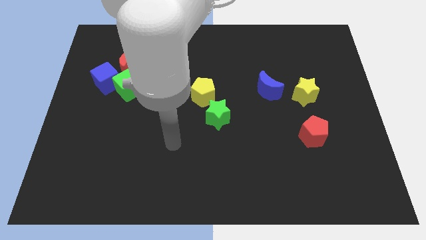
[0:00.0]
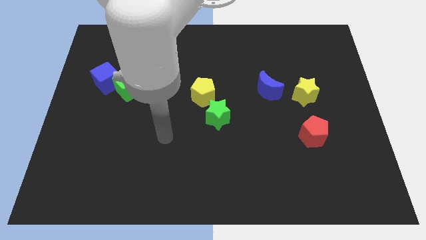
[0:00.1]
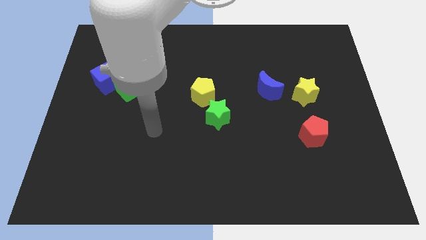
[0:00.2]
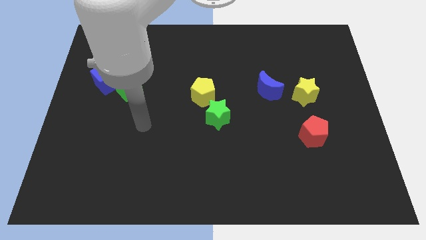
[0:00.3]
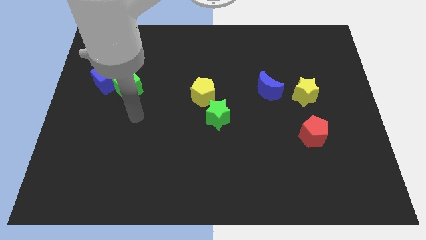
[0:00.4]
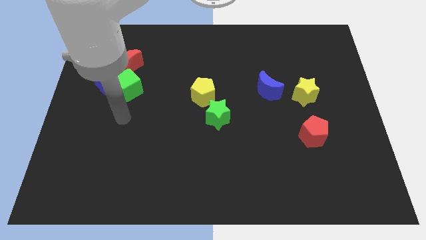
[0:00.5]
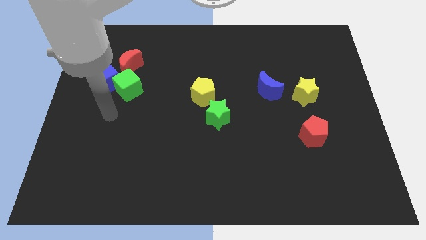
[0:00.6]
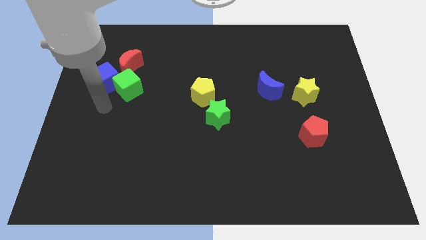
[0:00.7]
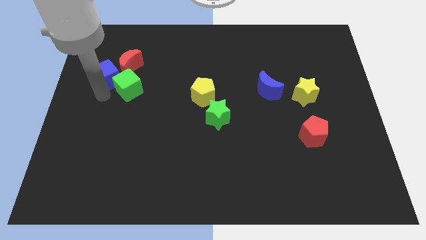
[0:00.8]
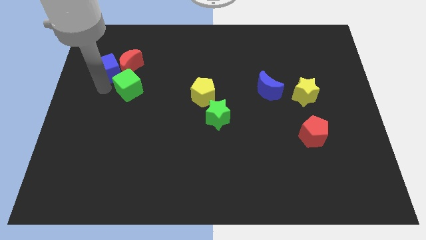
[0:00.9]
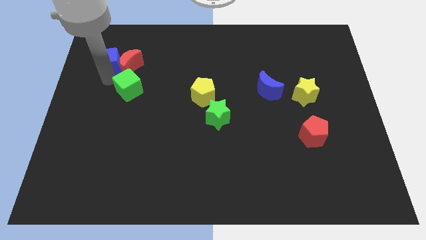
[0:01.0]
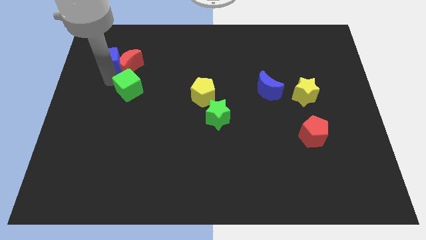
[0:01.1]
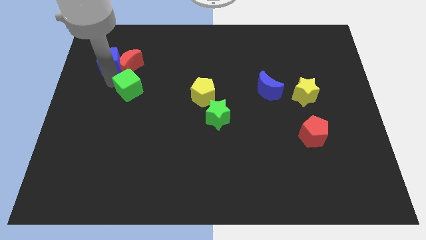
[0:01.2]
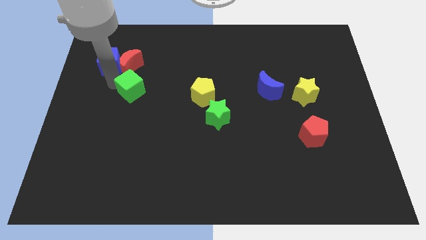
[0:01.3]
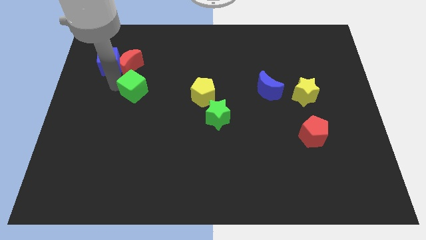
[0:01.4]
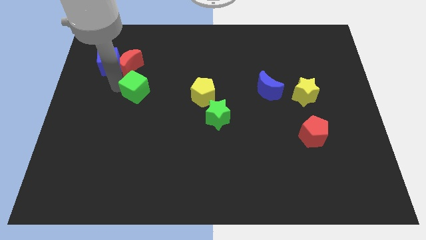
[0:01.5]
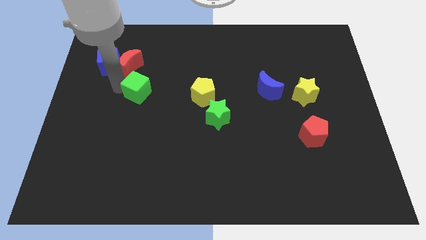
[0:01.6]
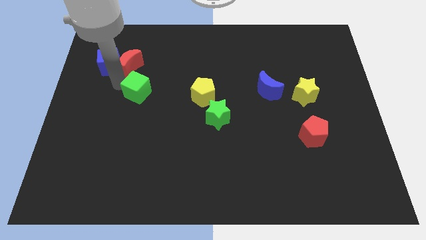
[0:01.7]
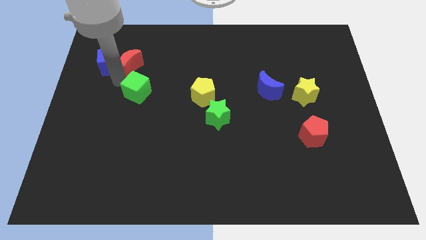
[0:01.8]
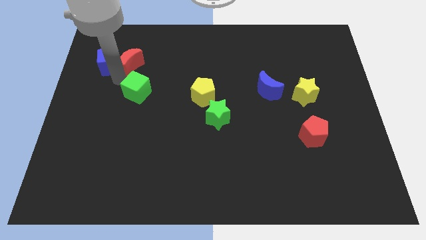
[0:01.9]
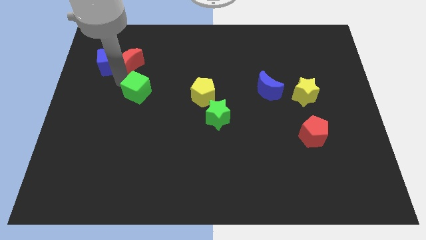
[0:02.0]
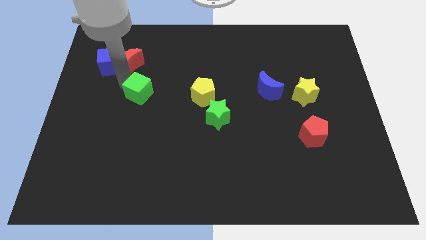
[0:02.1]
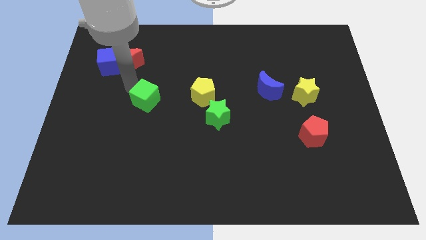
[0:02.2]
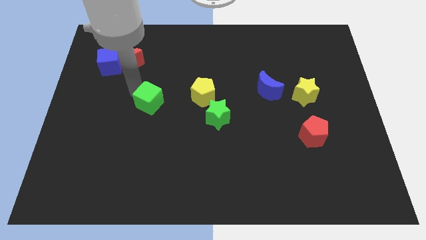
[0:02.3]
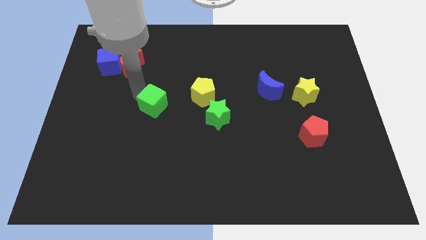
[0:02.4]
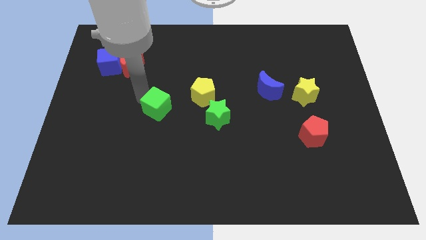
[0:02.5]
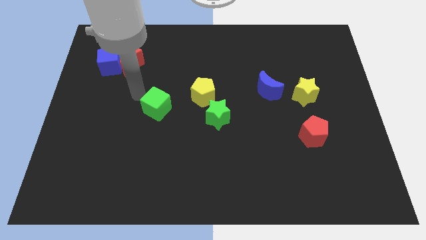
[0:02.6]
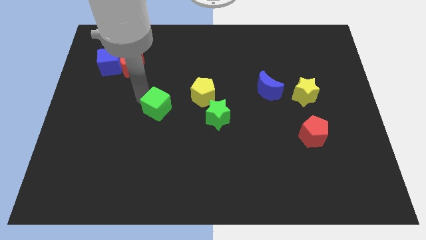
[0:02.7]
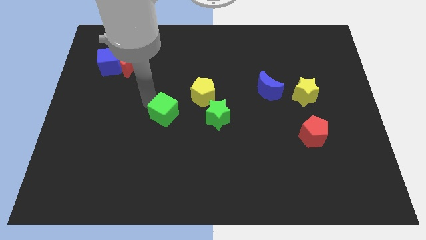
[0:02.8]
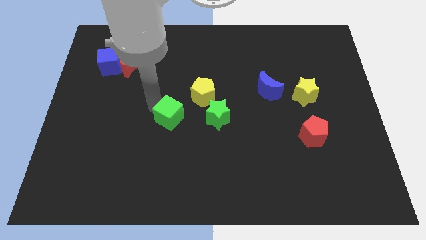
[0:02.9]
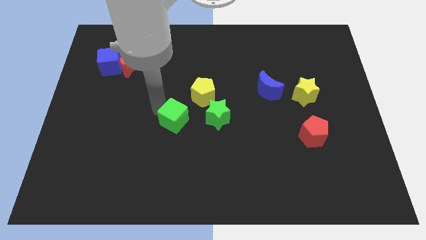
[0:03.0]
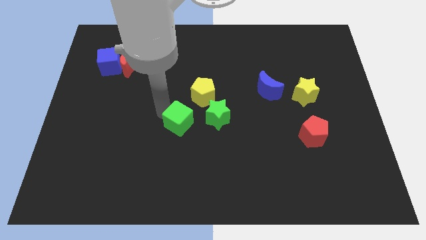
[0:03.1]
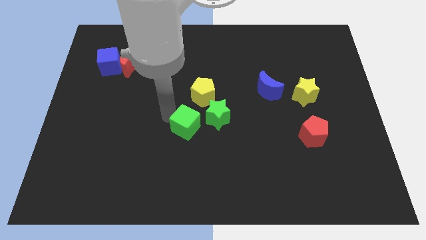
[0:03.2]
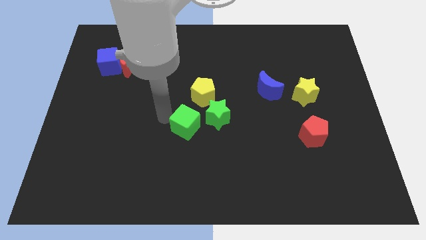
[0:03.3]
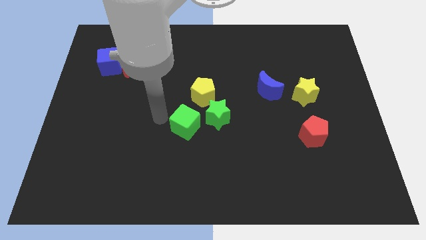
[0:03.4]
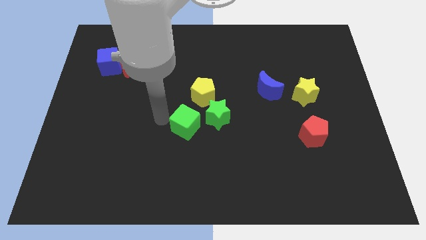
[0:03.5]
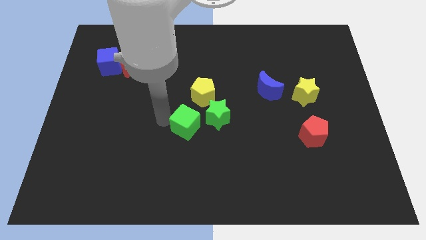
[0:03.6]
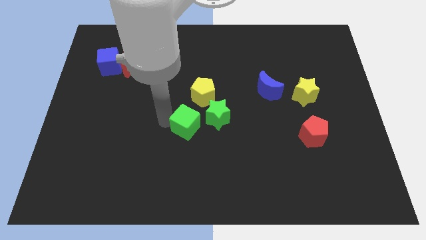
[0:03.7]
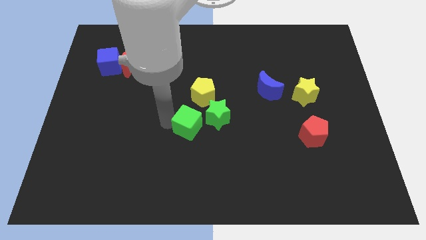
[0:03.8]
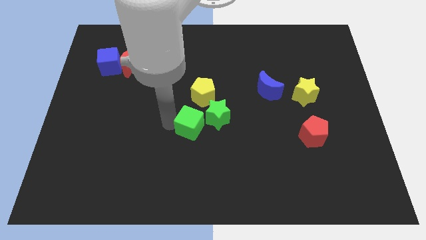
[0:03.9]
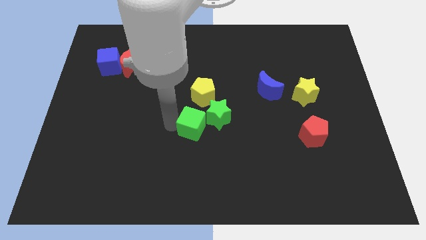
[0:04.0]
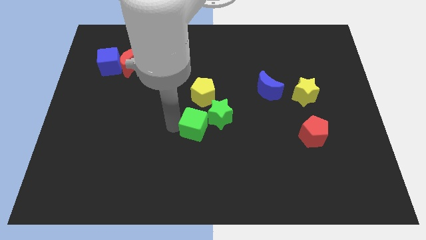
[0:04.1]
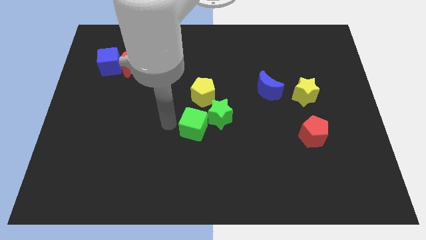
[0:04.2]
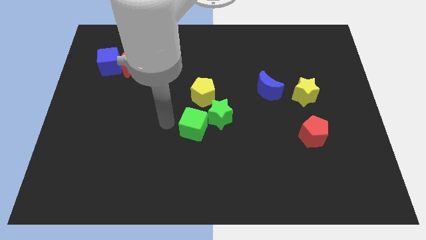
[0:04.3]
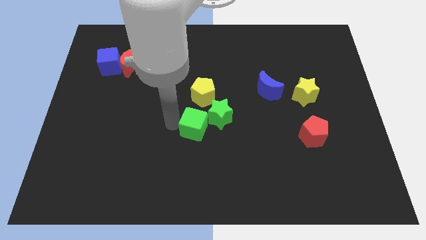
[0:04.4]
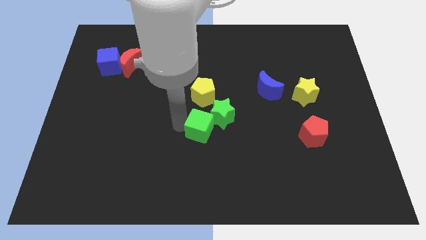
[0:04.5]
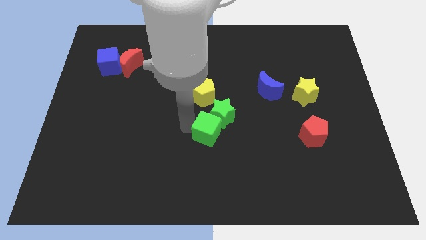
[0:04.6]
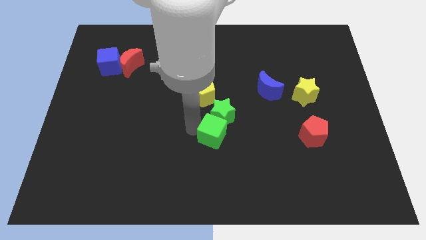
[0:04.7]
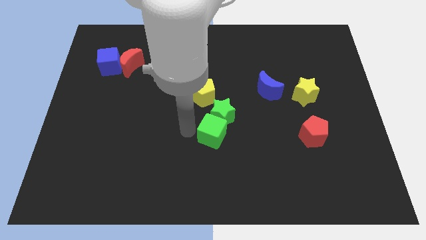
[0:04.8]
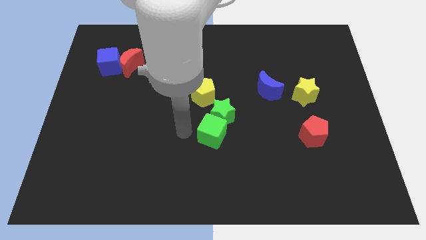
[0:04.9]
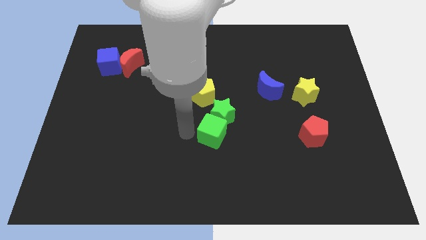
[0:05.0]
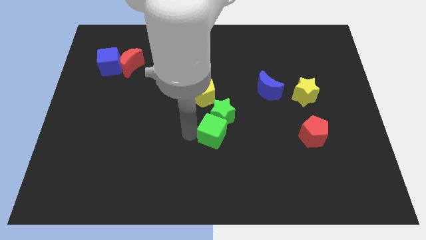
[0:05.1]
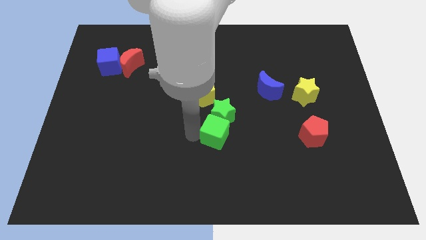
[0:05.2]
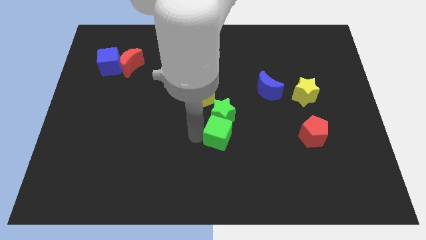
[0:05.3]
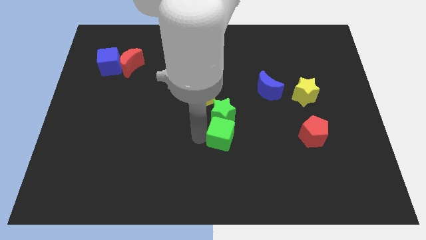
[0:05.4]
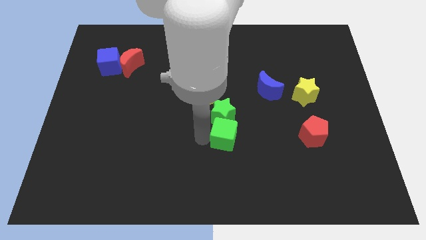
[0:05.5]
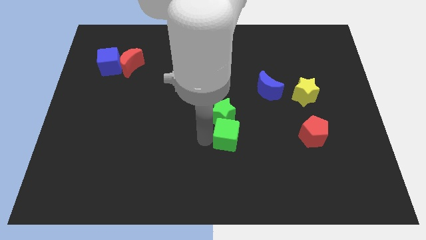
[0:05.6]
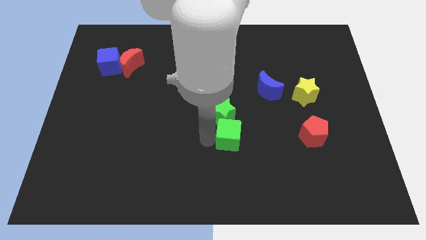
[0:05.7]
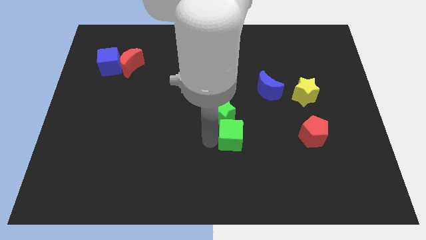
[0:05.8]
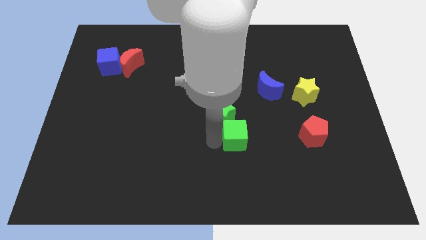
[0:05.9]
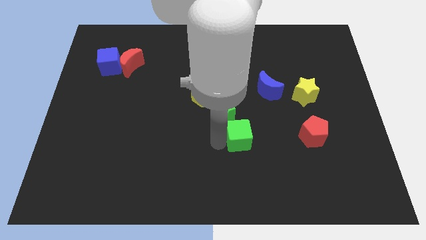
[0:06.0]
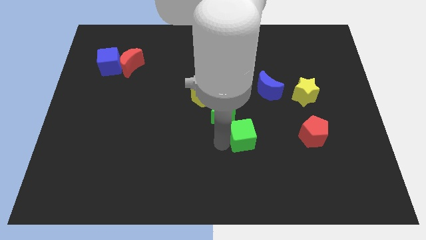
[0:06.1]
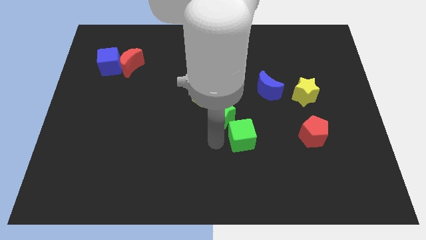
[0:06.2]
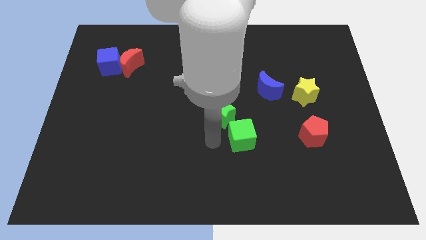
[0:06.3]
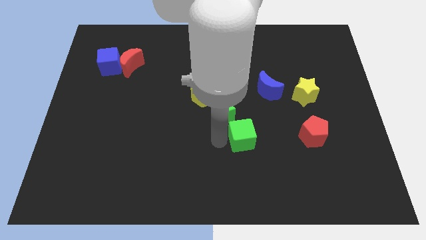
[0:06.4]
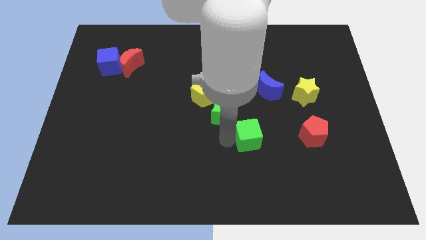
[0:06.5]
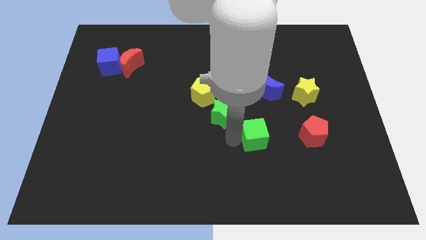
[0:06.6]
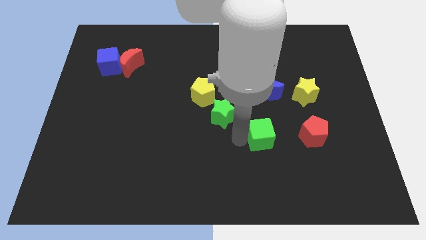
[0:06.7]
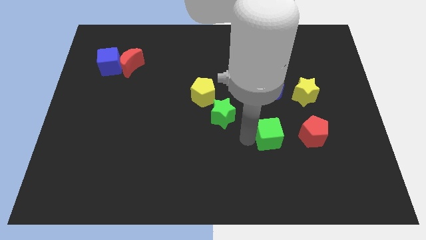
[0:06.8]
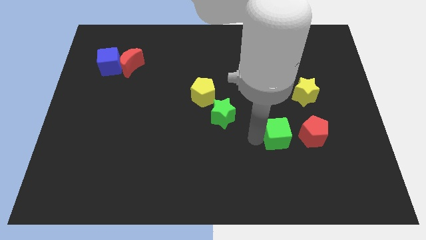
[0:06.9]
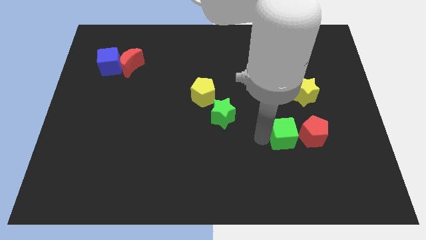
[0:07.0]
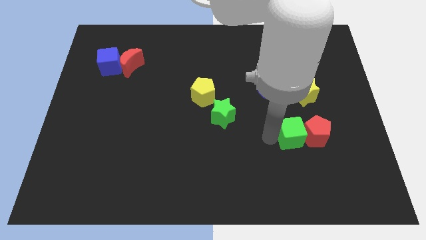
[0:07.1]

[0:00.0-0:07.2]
put the green cube towards the red pentagon
